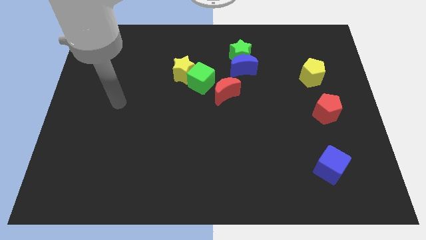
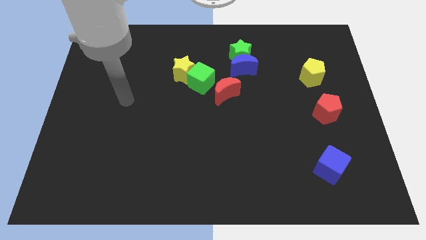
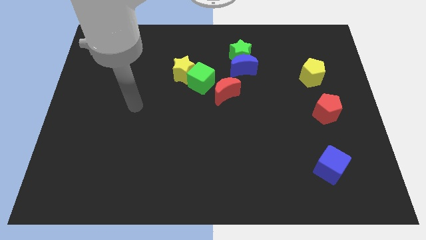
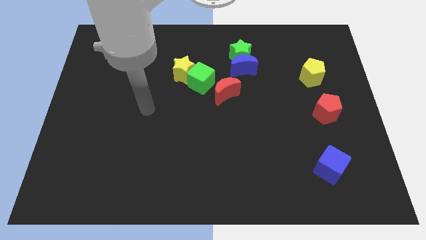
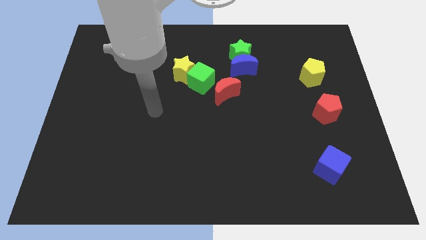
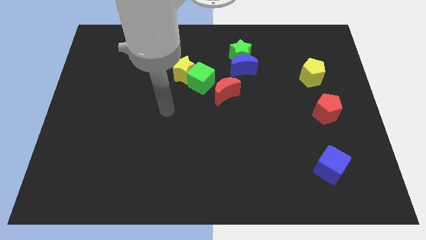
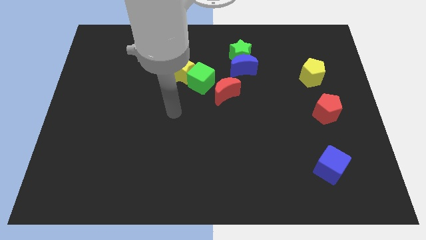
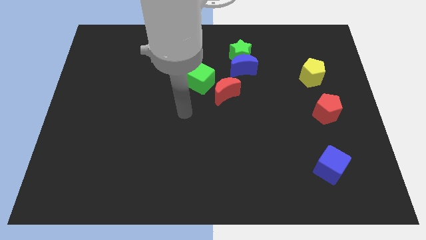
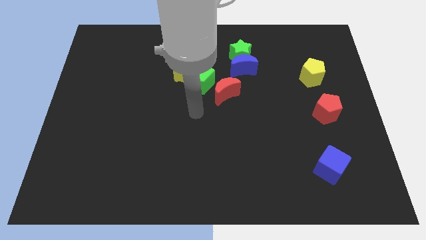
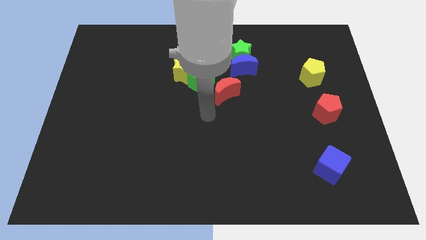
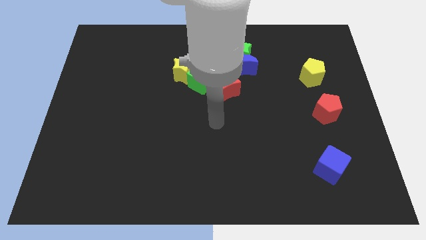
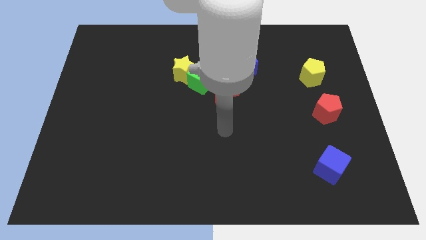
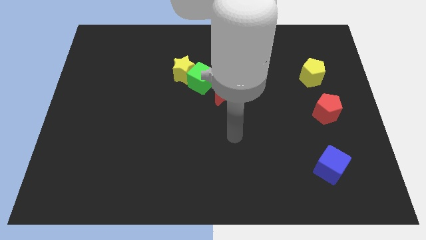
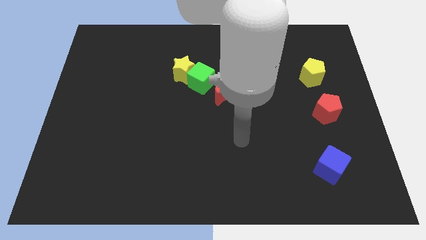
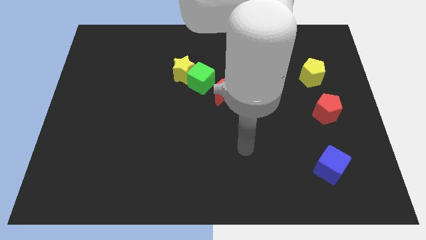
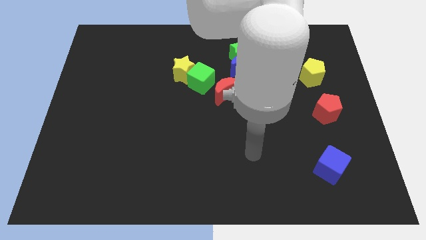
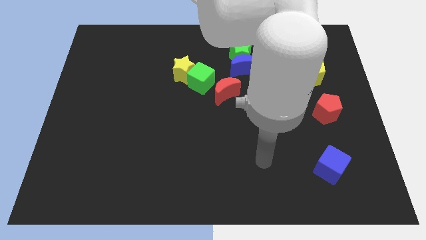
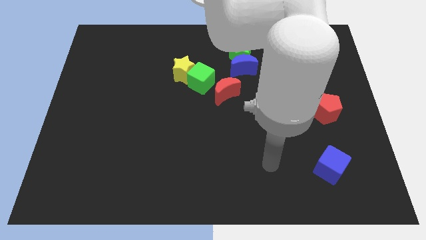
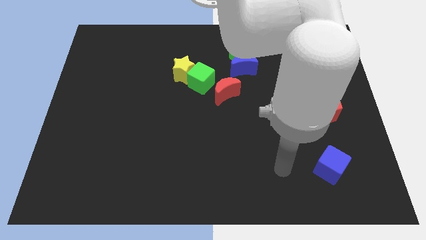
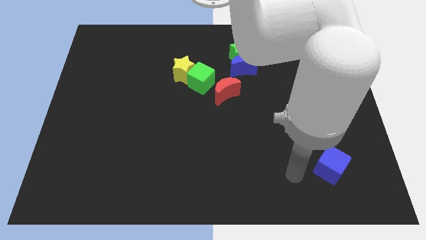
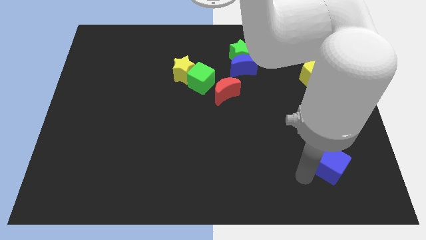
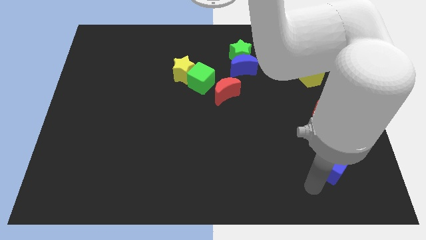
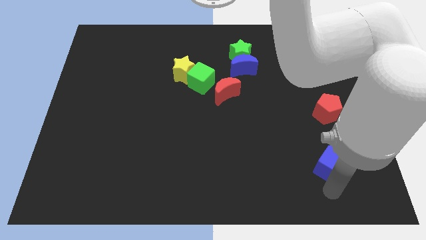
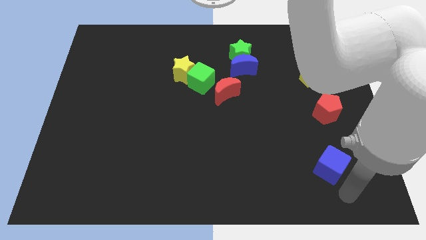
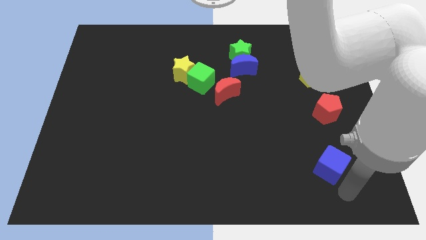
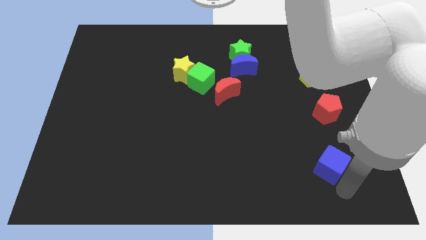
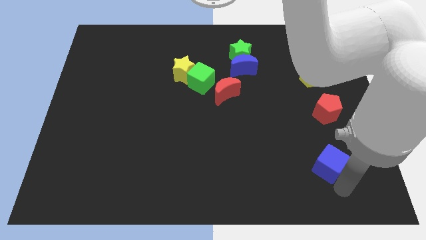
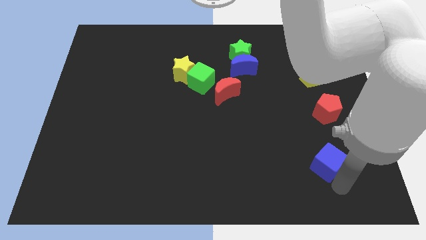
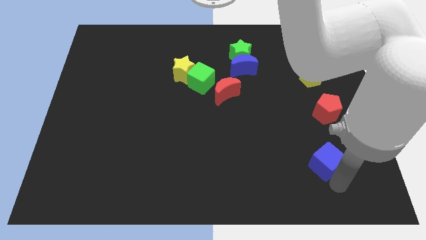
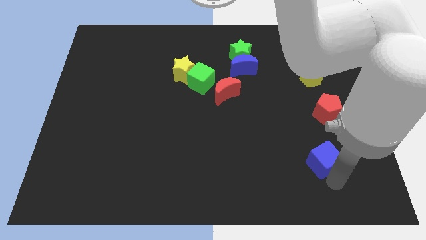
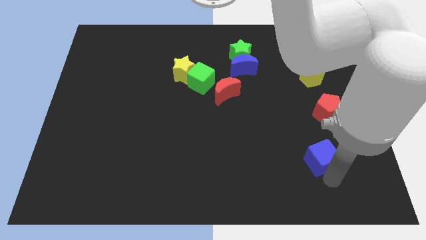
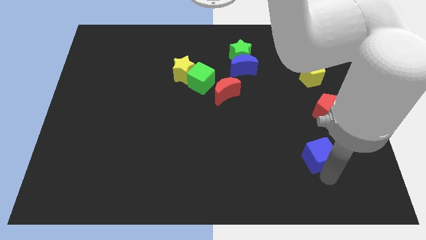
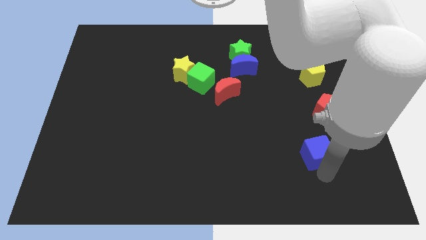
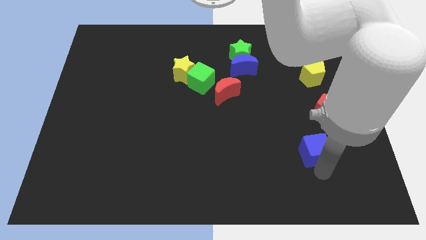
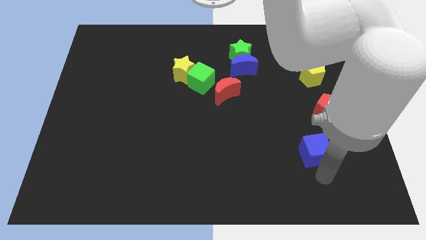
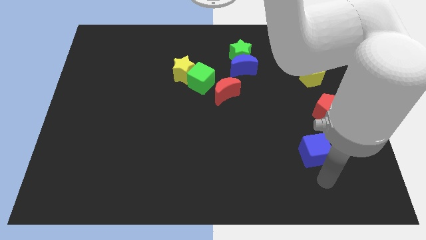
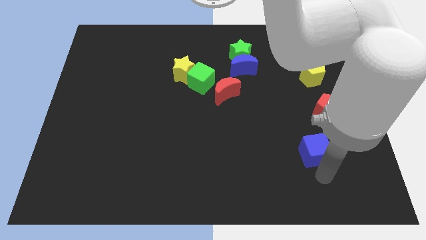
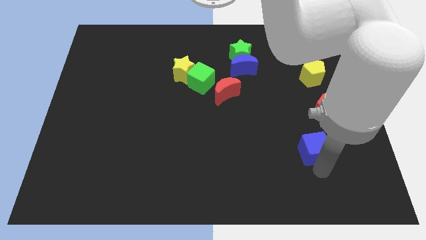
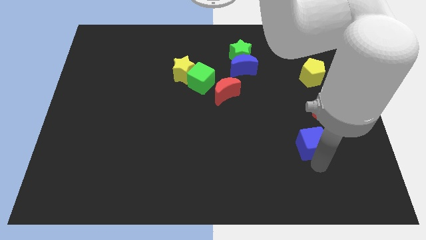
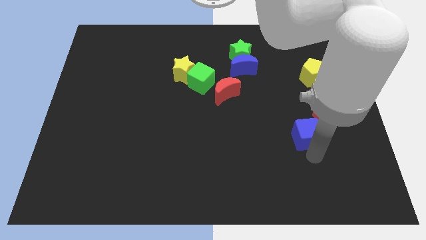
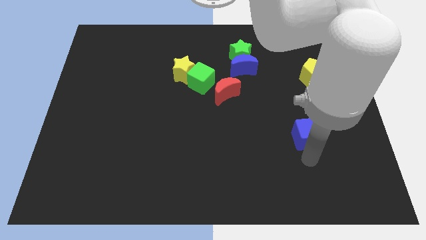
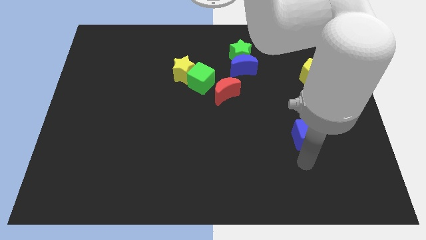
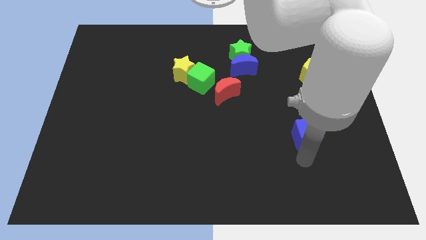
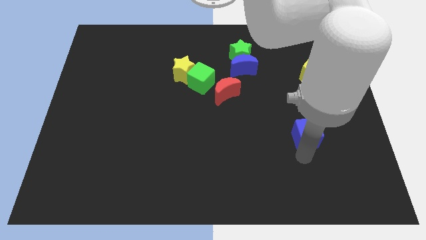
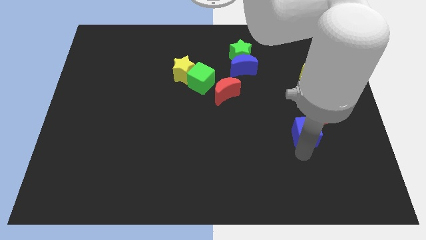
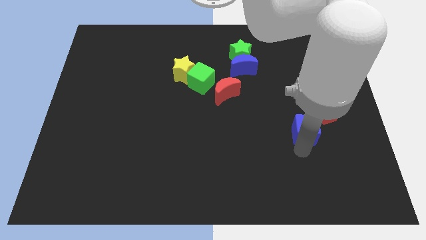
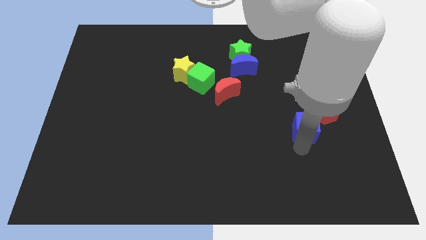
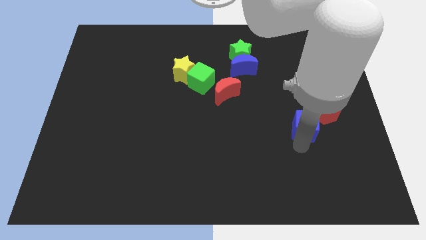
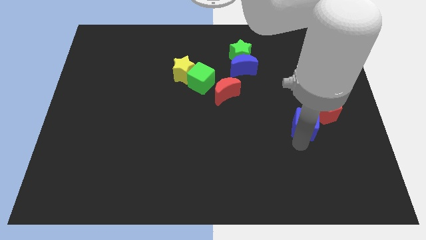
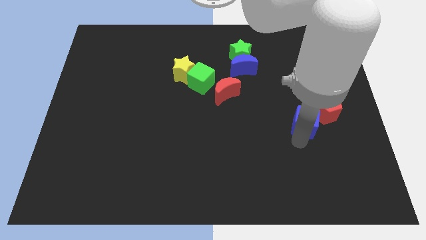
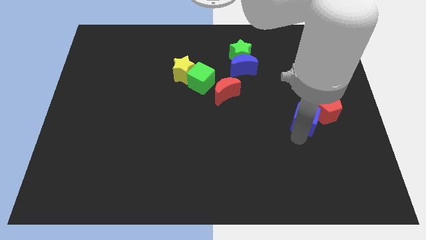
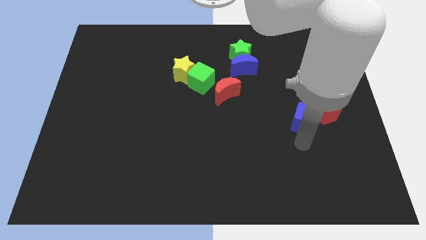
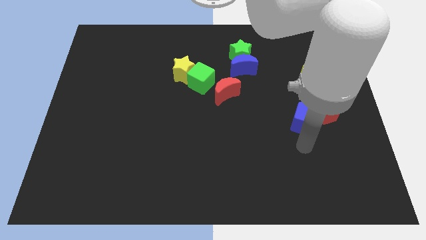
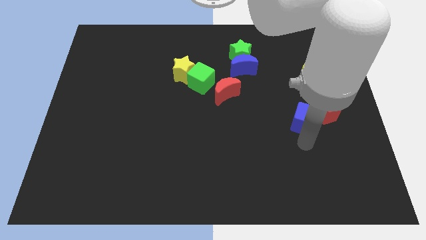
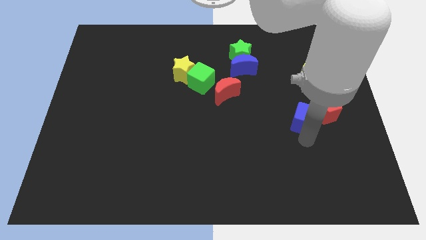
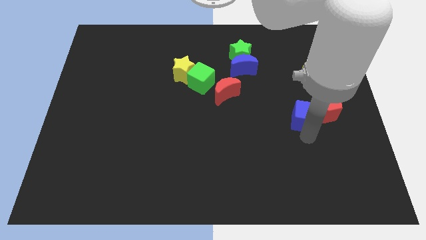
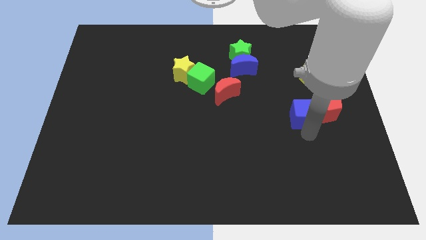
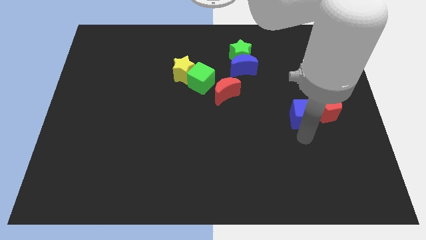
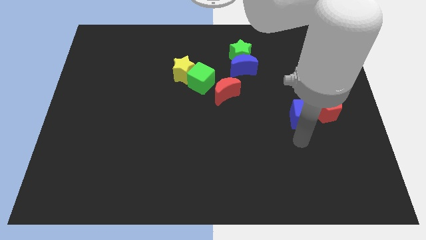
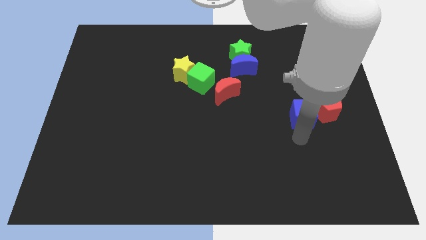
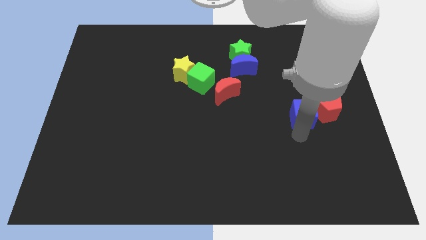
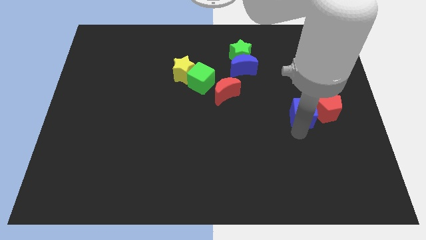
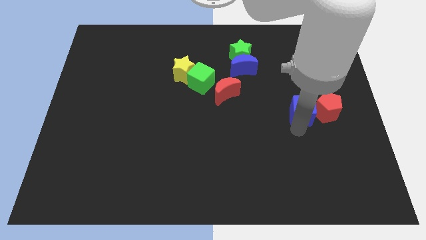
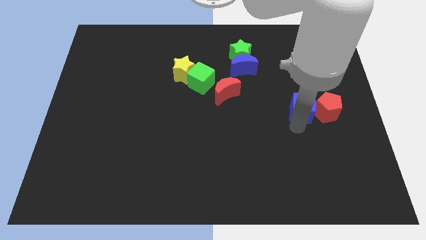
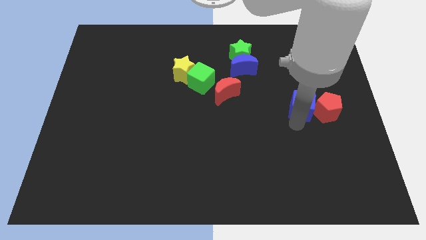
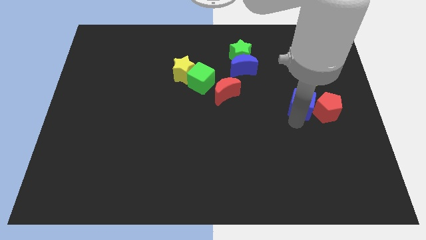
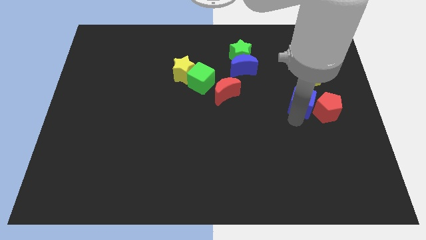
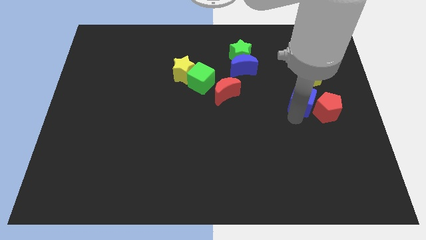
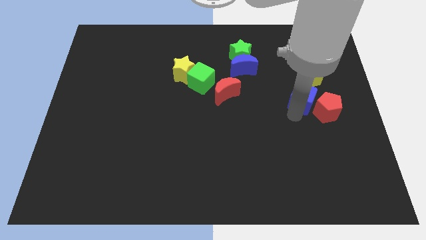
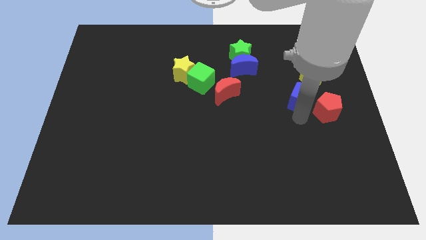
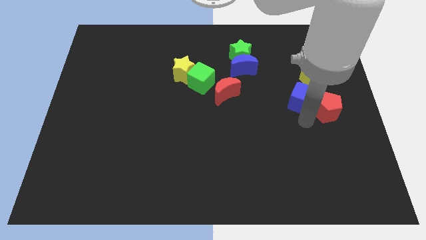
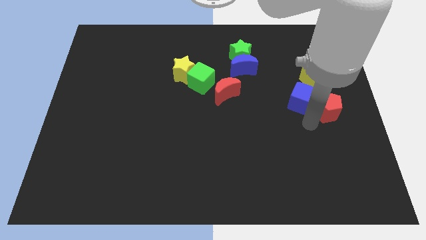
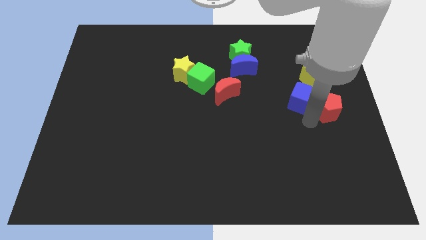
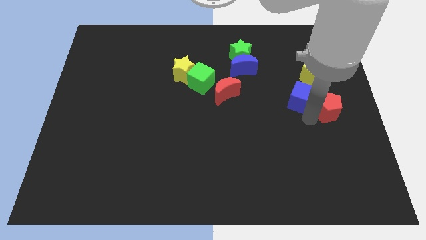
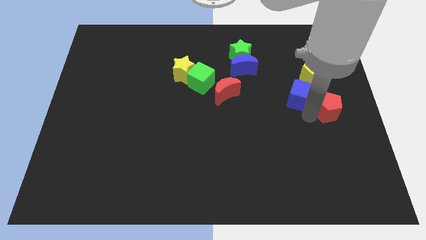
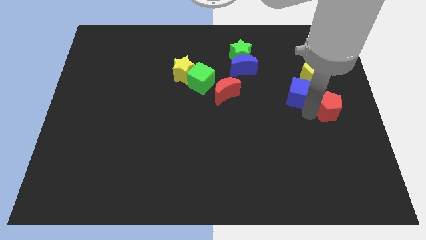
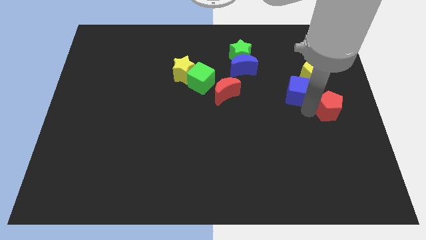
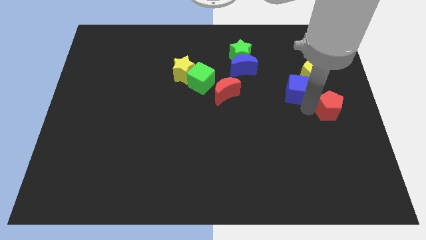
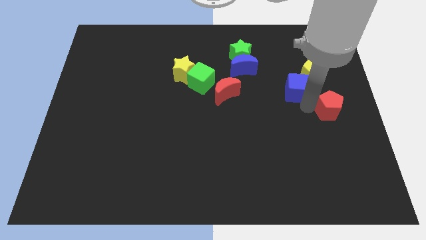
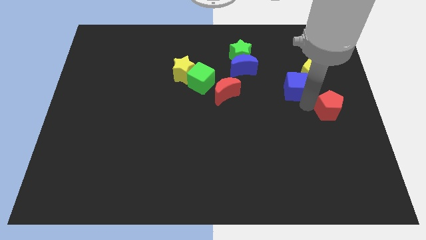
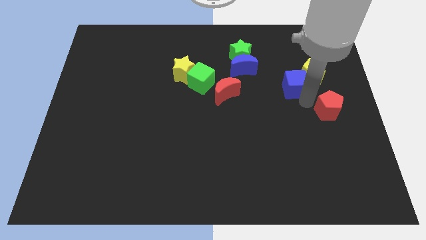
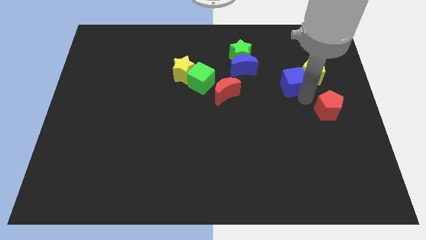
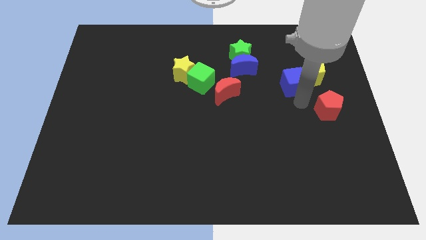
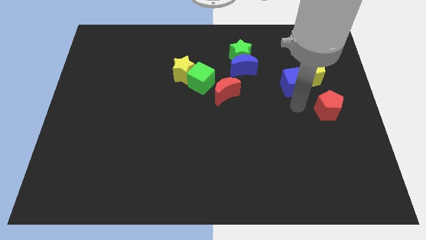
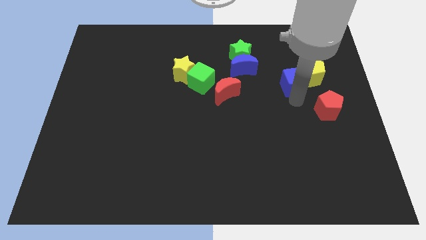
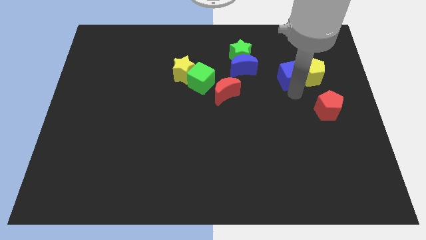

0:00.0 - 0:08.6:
push the blue cube to the top left side of the yellow pentagon
